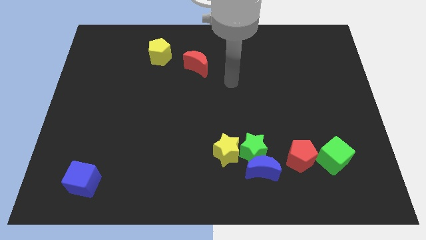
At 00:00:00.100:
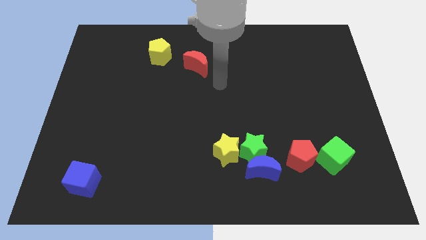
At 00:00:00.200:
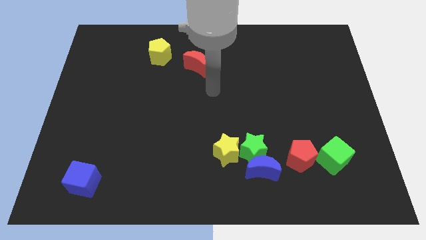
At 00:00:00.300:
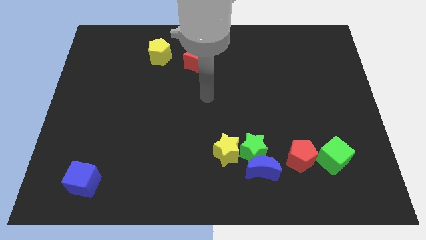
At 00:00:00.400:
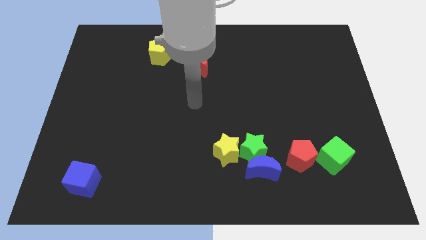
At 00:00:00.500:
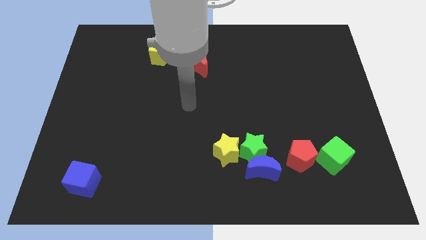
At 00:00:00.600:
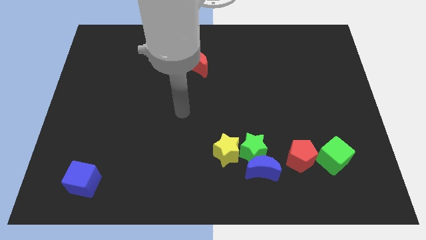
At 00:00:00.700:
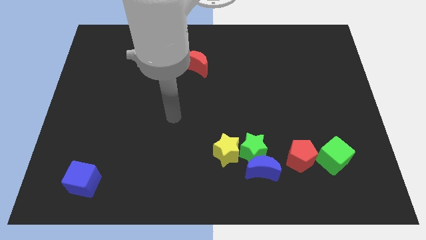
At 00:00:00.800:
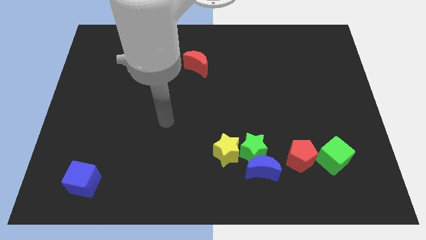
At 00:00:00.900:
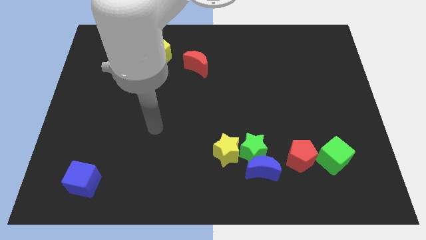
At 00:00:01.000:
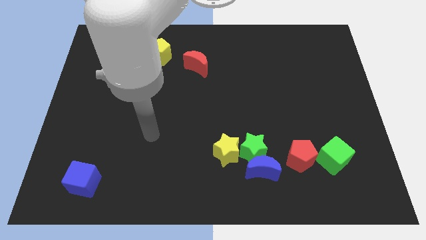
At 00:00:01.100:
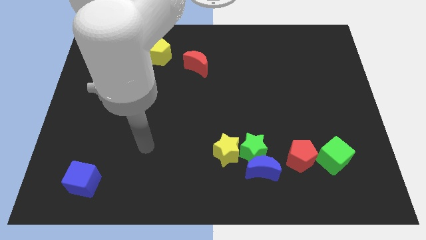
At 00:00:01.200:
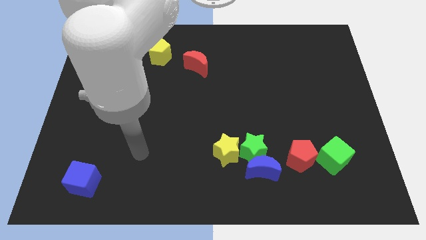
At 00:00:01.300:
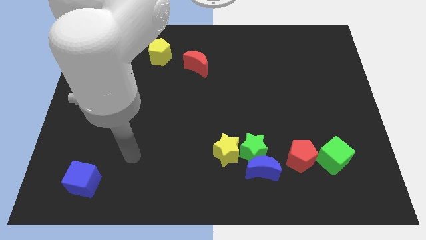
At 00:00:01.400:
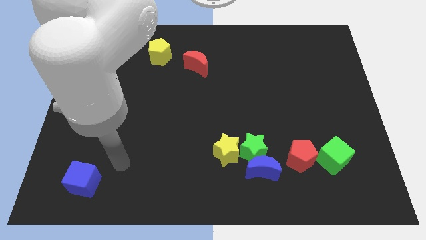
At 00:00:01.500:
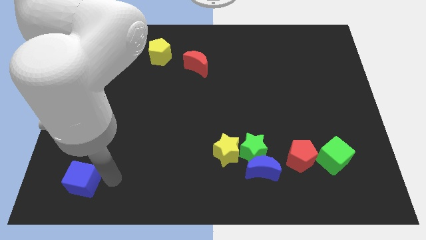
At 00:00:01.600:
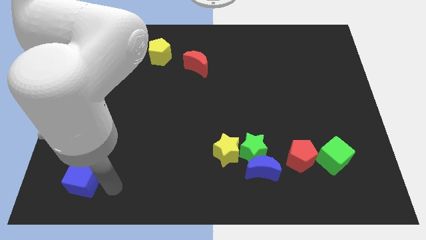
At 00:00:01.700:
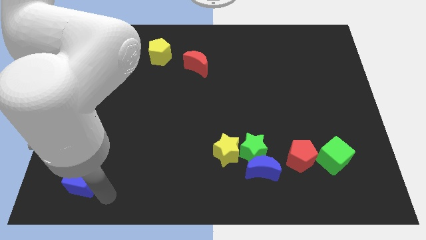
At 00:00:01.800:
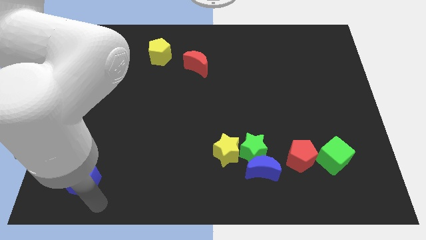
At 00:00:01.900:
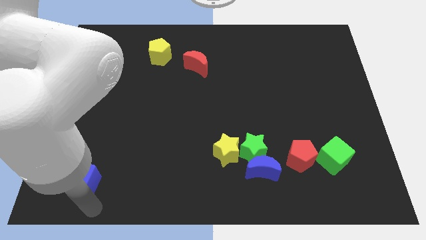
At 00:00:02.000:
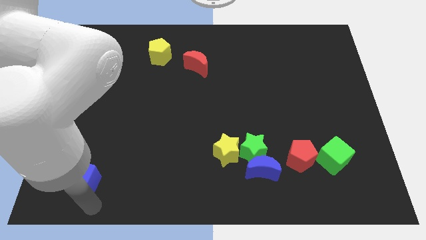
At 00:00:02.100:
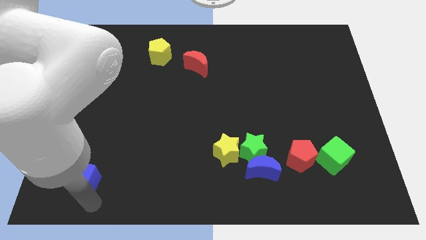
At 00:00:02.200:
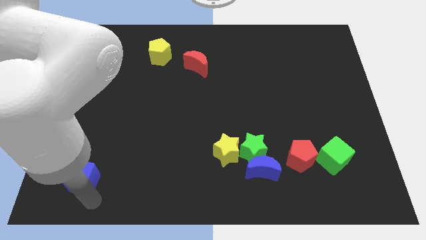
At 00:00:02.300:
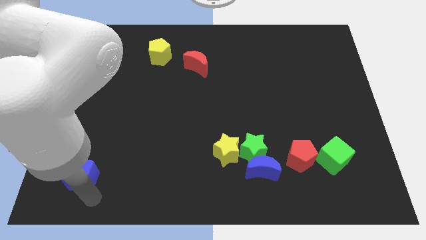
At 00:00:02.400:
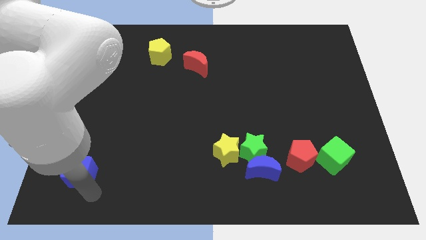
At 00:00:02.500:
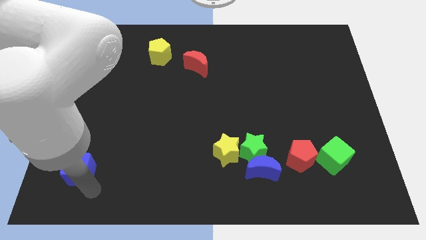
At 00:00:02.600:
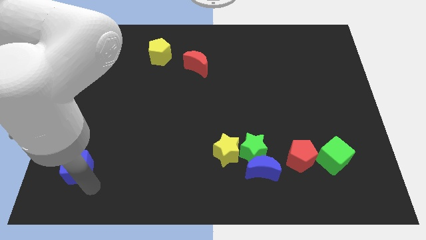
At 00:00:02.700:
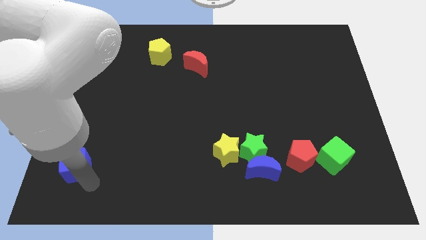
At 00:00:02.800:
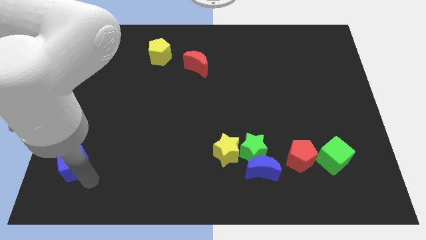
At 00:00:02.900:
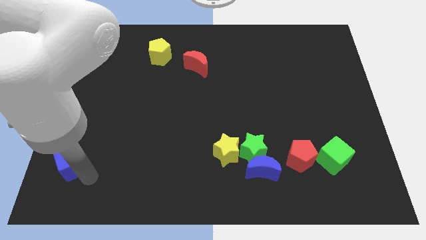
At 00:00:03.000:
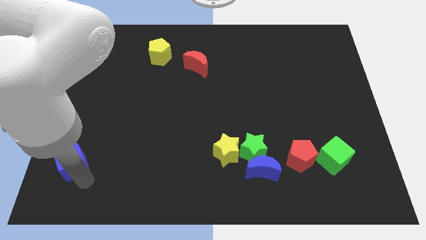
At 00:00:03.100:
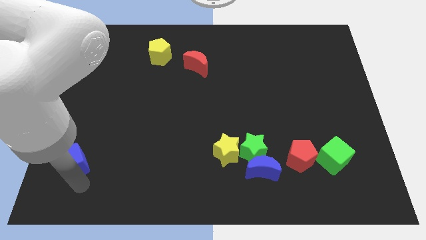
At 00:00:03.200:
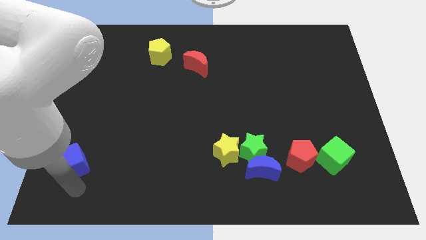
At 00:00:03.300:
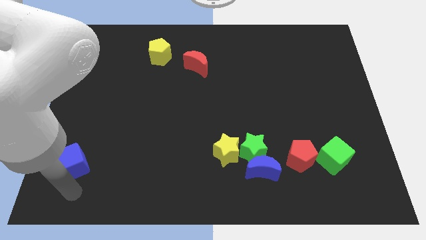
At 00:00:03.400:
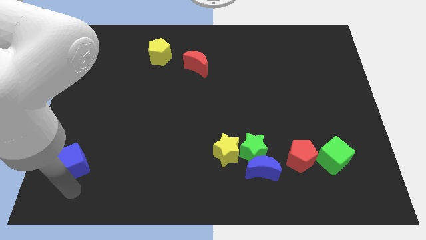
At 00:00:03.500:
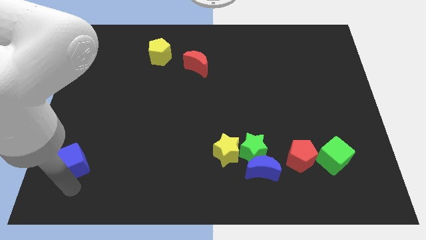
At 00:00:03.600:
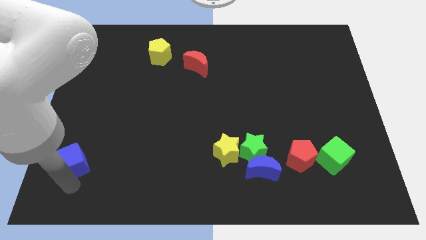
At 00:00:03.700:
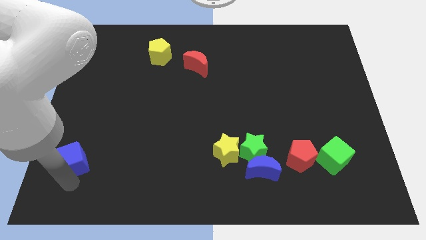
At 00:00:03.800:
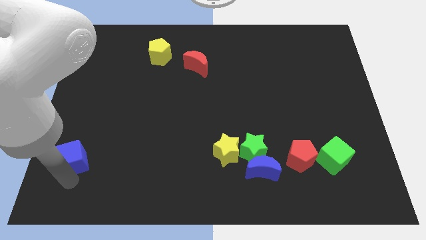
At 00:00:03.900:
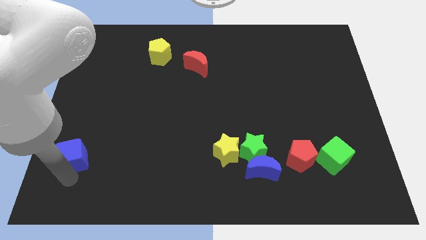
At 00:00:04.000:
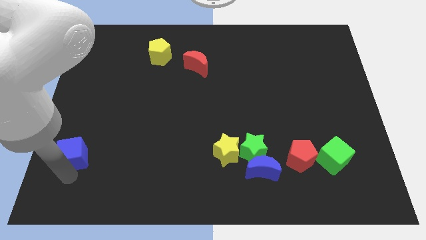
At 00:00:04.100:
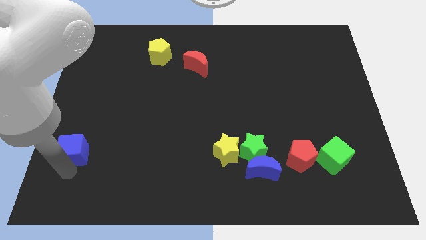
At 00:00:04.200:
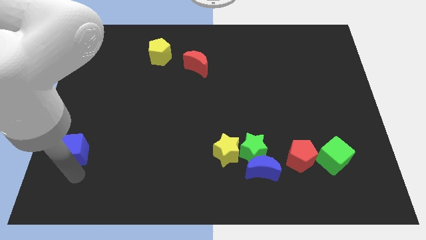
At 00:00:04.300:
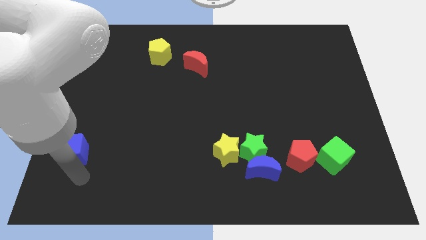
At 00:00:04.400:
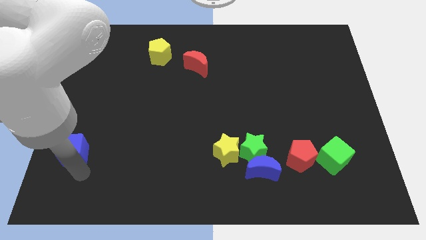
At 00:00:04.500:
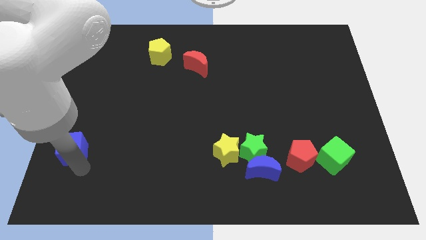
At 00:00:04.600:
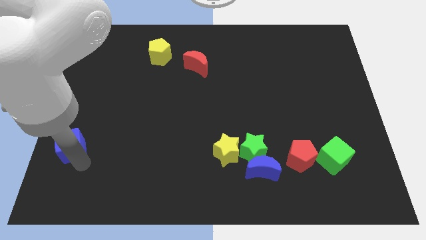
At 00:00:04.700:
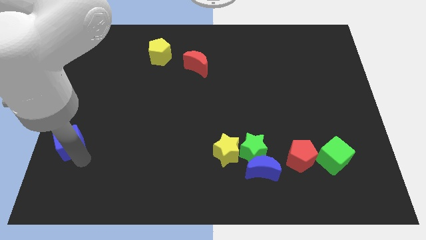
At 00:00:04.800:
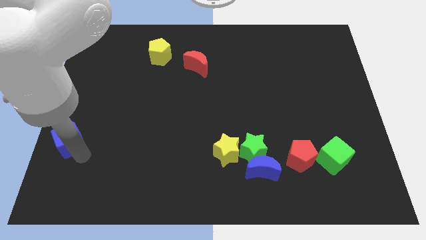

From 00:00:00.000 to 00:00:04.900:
put the blue cube to the center left

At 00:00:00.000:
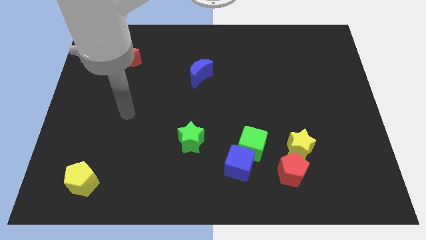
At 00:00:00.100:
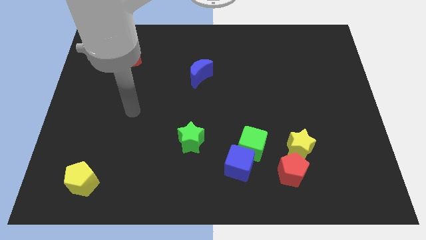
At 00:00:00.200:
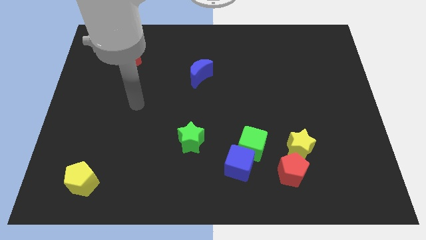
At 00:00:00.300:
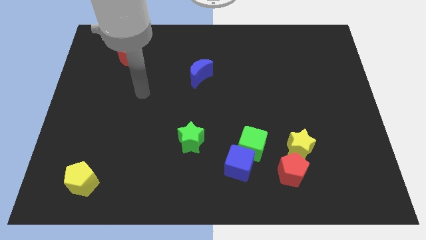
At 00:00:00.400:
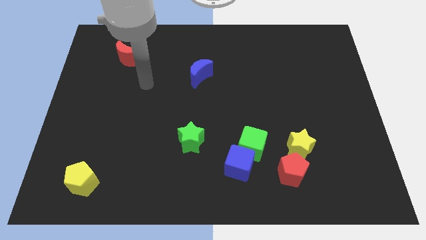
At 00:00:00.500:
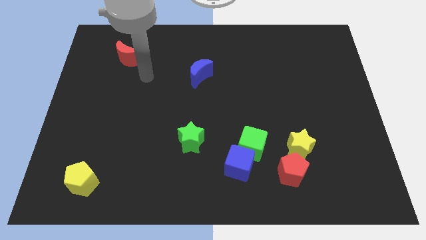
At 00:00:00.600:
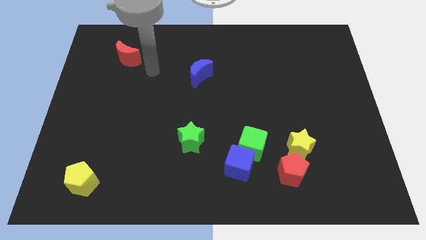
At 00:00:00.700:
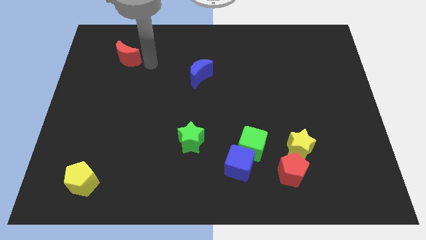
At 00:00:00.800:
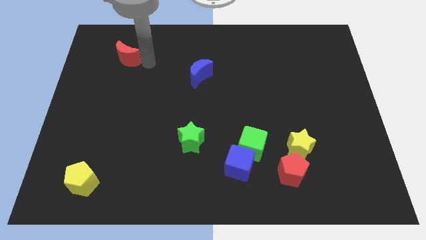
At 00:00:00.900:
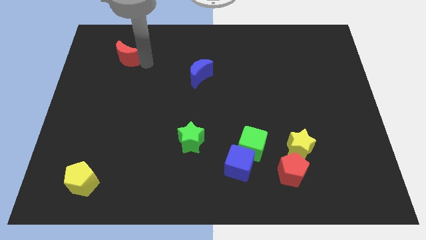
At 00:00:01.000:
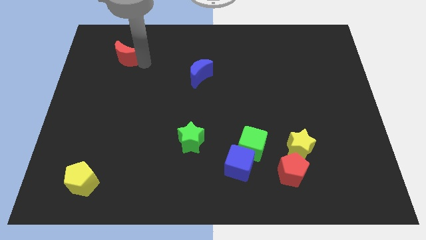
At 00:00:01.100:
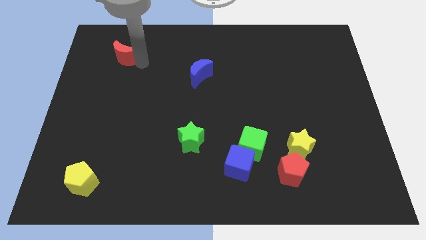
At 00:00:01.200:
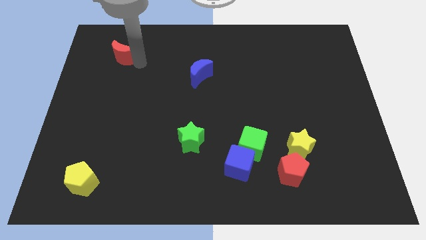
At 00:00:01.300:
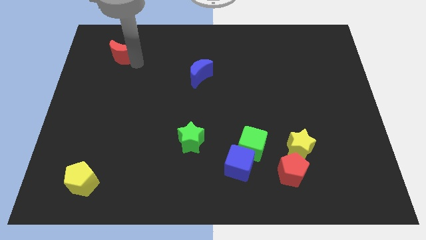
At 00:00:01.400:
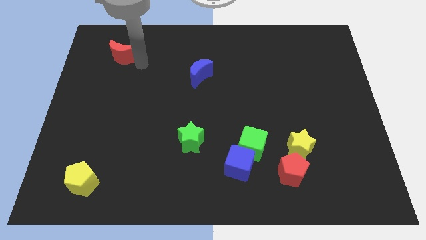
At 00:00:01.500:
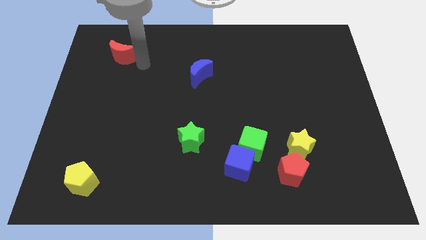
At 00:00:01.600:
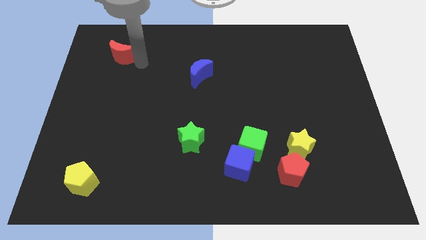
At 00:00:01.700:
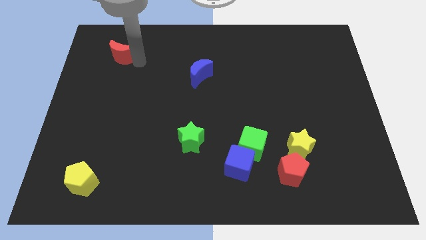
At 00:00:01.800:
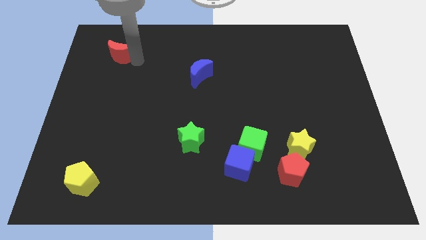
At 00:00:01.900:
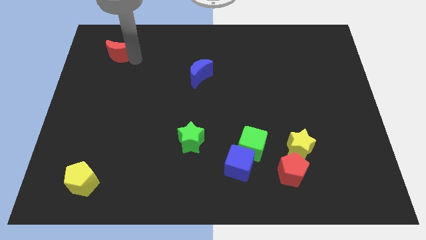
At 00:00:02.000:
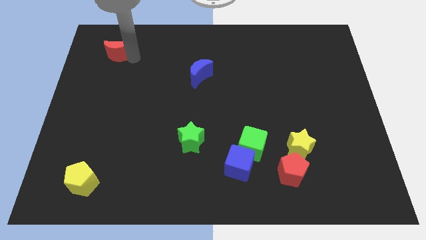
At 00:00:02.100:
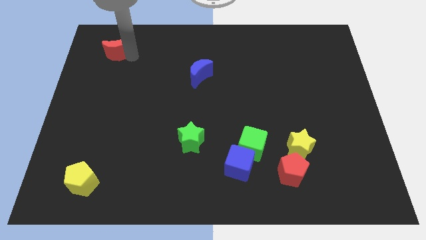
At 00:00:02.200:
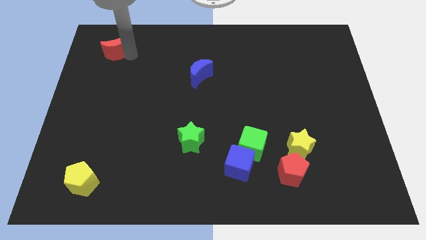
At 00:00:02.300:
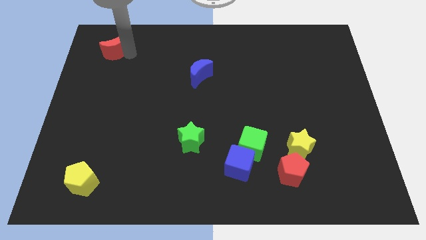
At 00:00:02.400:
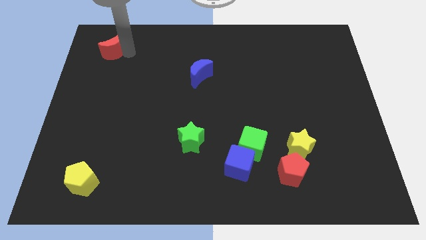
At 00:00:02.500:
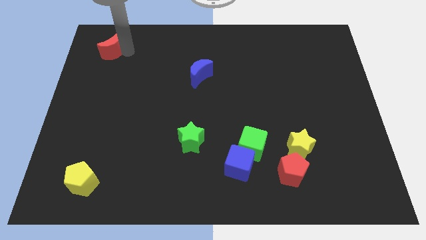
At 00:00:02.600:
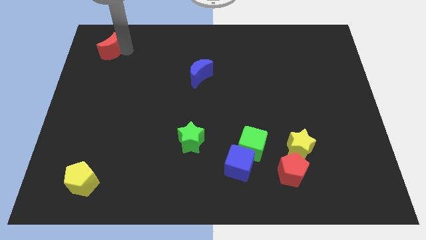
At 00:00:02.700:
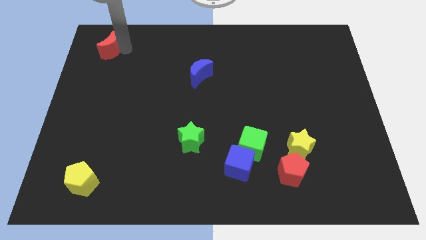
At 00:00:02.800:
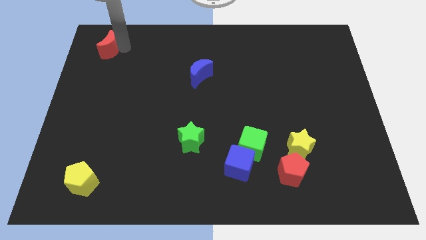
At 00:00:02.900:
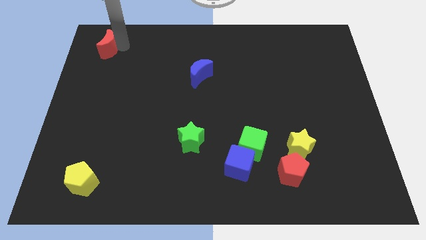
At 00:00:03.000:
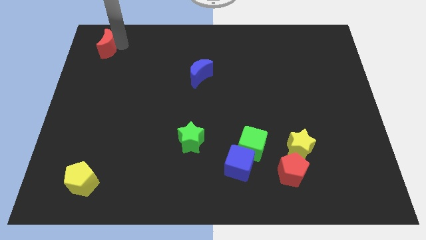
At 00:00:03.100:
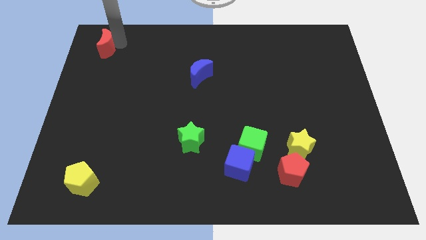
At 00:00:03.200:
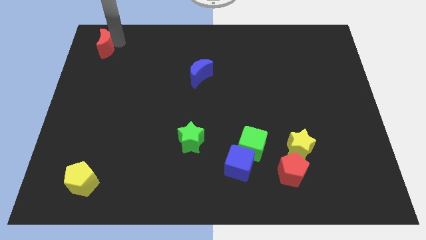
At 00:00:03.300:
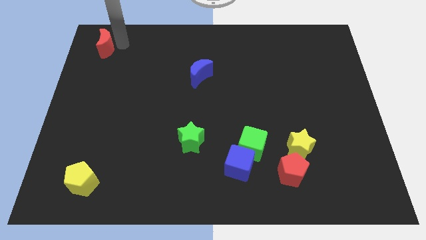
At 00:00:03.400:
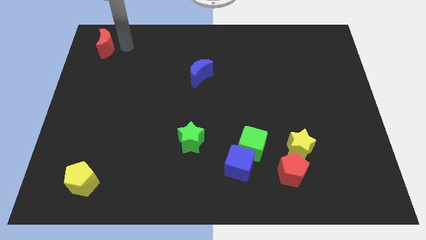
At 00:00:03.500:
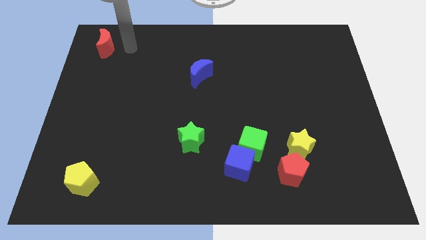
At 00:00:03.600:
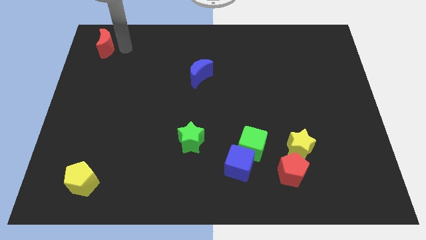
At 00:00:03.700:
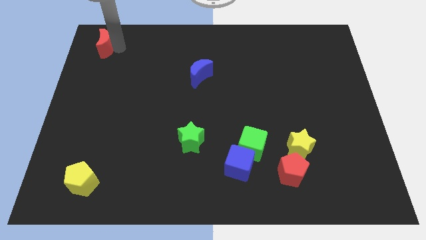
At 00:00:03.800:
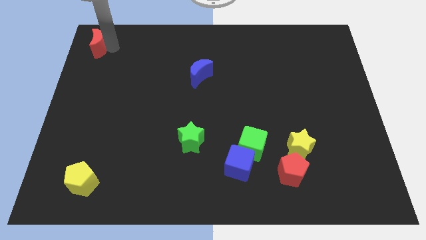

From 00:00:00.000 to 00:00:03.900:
put the red moon to the upper left corner
